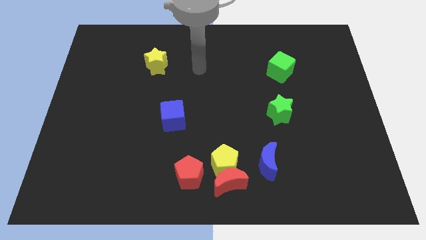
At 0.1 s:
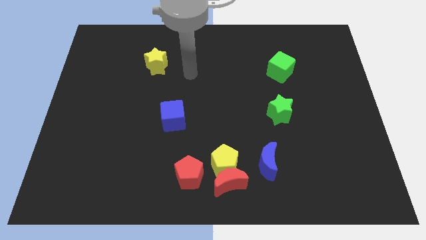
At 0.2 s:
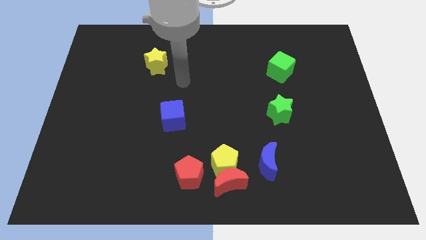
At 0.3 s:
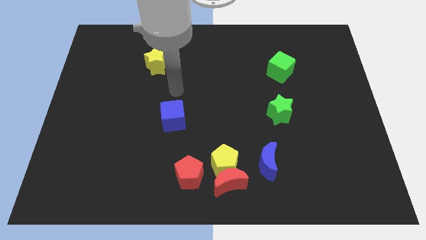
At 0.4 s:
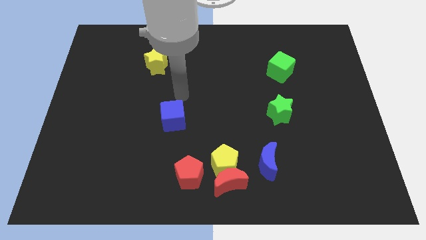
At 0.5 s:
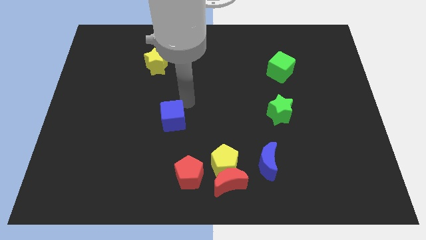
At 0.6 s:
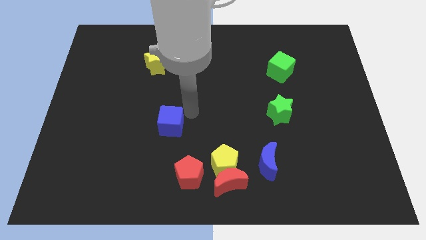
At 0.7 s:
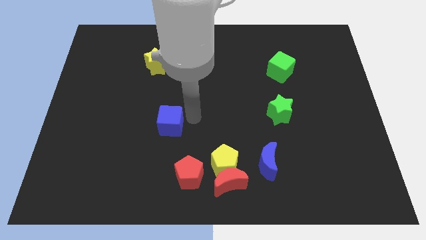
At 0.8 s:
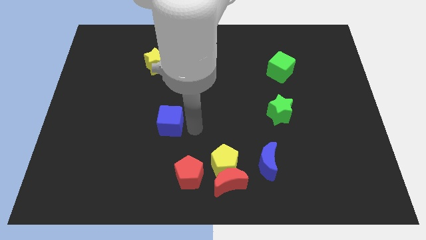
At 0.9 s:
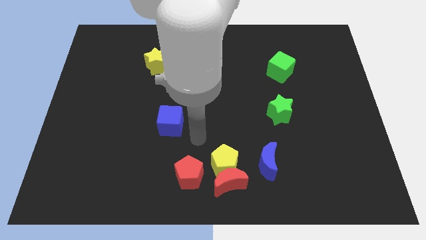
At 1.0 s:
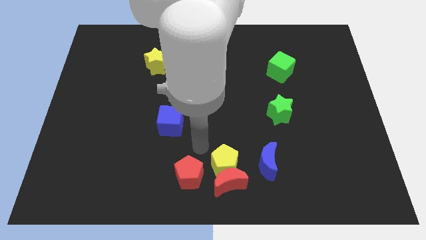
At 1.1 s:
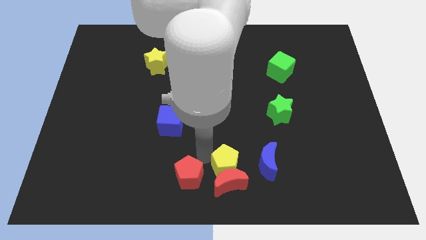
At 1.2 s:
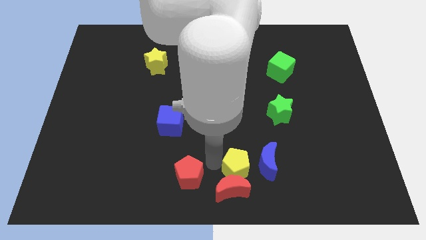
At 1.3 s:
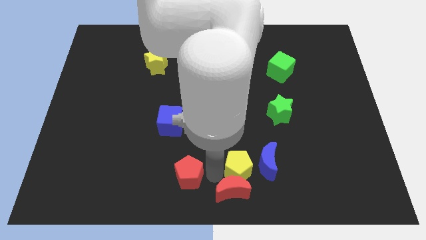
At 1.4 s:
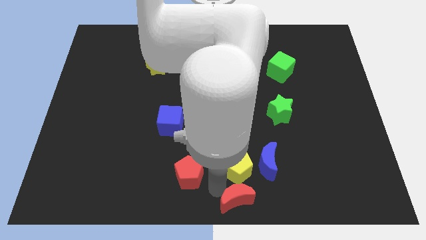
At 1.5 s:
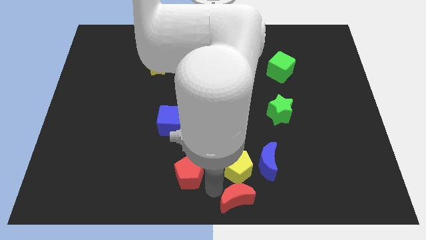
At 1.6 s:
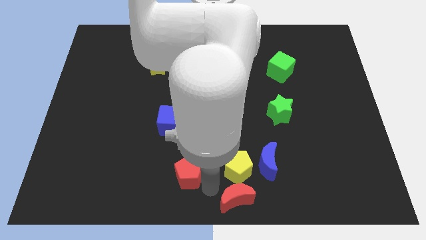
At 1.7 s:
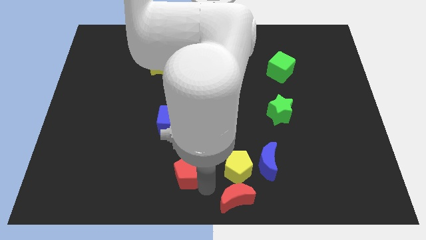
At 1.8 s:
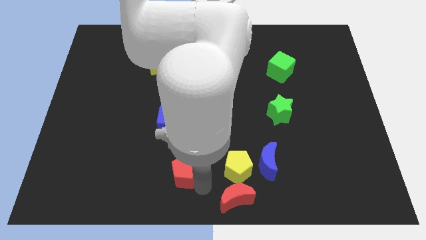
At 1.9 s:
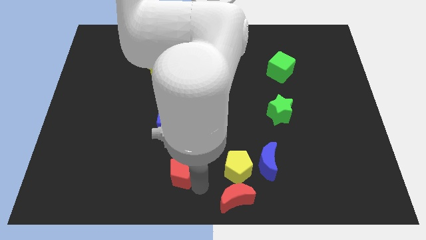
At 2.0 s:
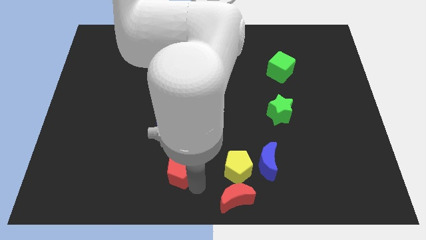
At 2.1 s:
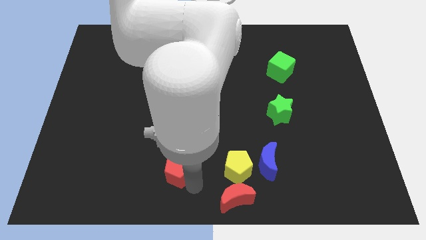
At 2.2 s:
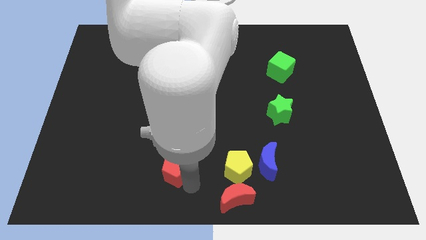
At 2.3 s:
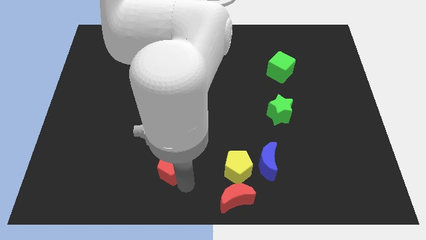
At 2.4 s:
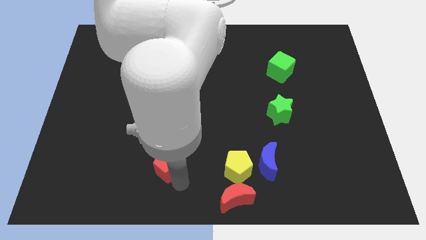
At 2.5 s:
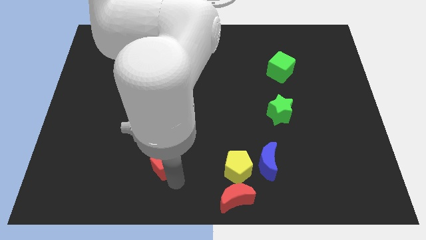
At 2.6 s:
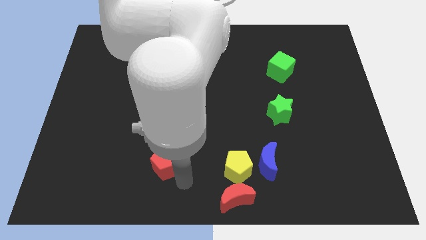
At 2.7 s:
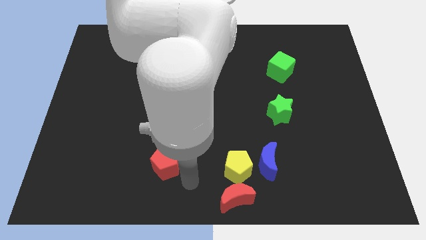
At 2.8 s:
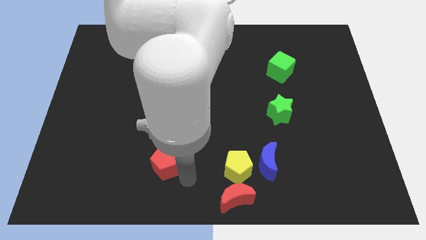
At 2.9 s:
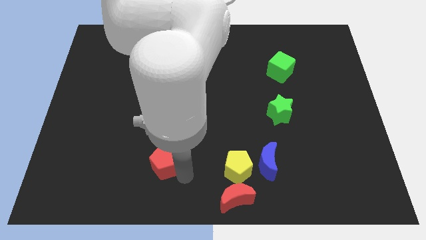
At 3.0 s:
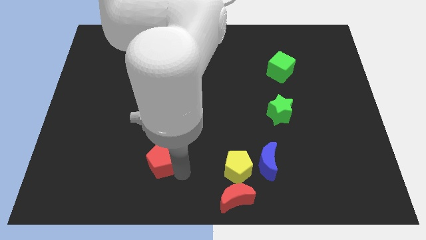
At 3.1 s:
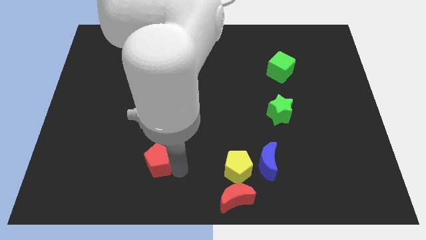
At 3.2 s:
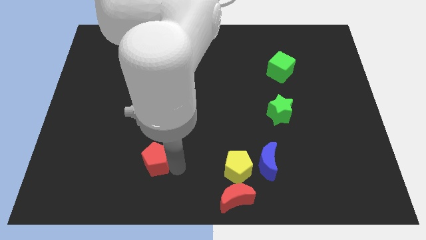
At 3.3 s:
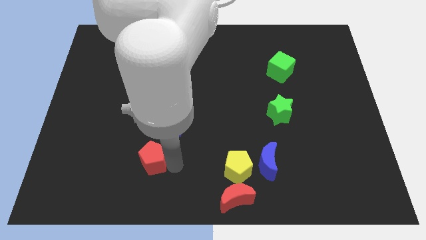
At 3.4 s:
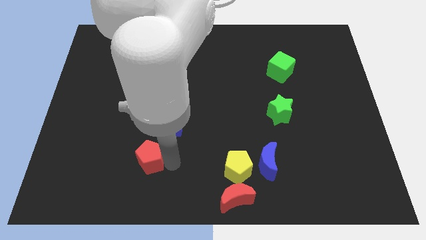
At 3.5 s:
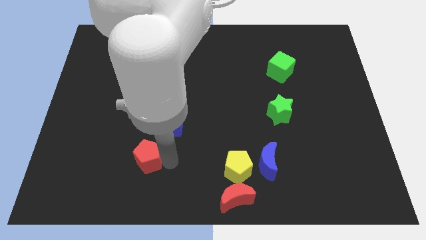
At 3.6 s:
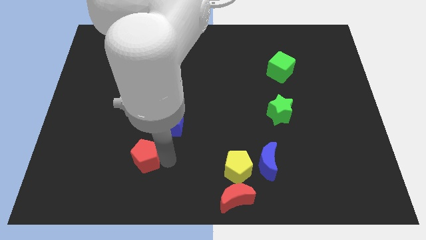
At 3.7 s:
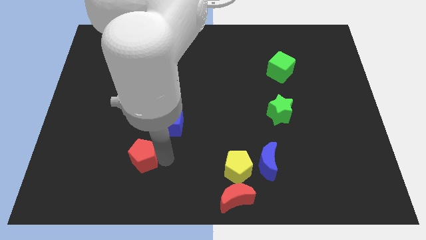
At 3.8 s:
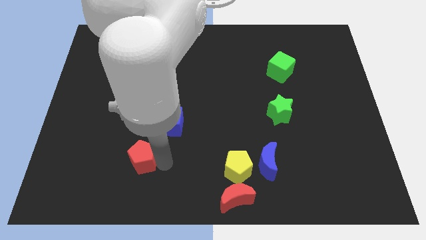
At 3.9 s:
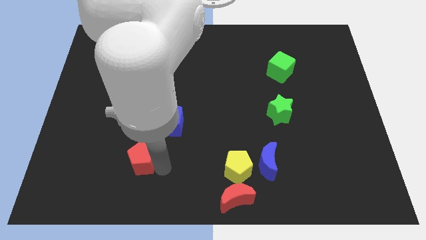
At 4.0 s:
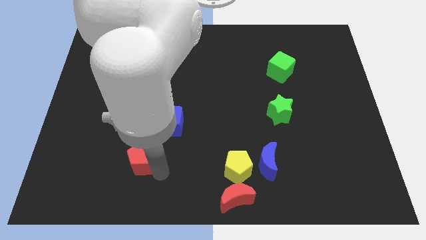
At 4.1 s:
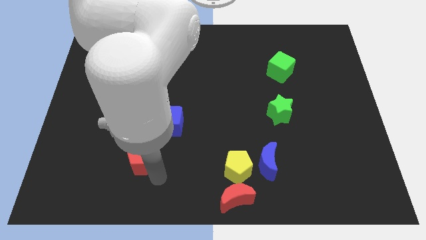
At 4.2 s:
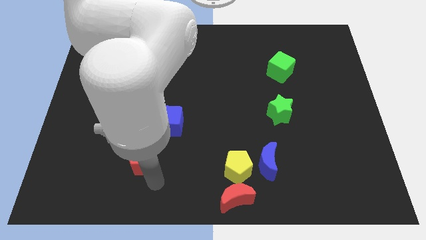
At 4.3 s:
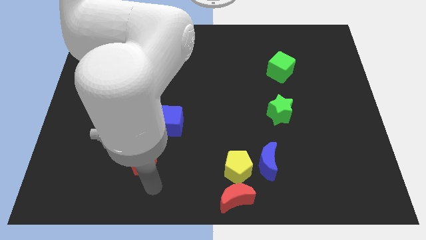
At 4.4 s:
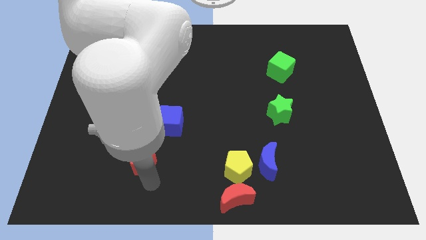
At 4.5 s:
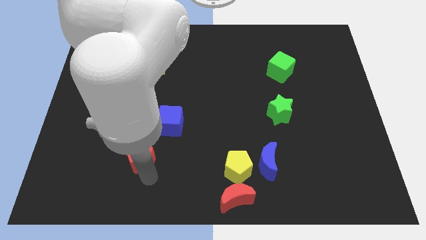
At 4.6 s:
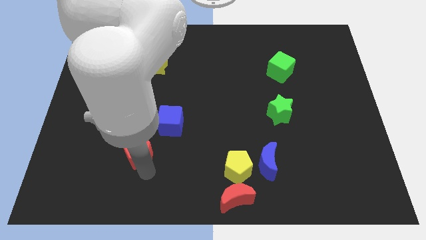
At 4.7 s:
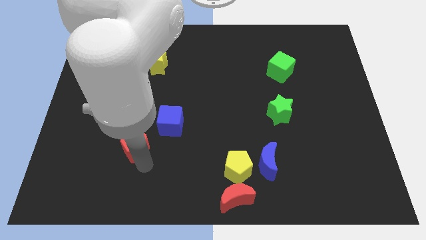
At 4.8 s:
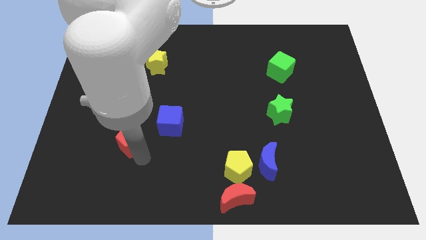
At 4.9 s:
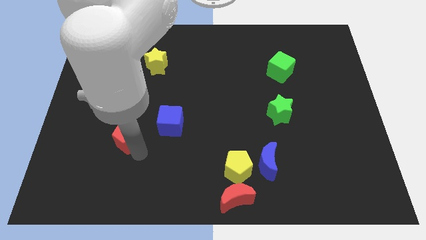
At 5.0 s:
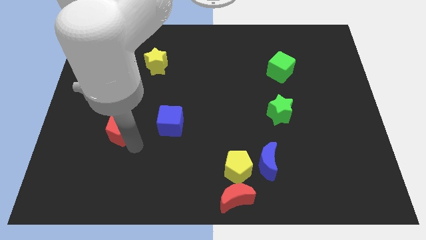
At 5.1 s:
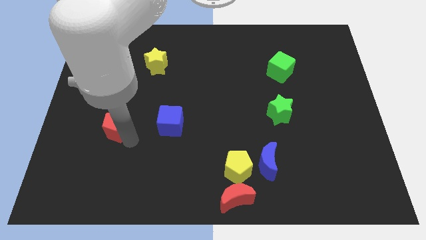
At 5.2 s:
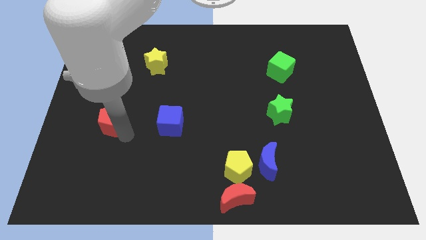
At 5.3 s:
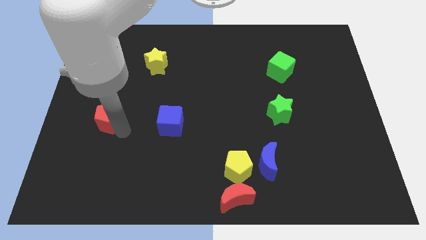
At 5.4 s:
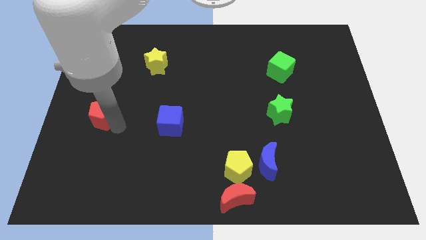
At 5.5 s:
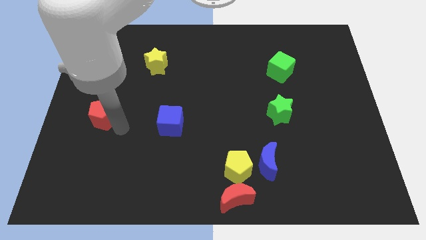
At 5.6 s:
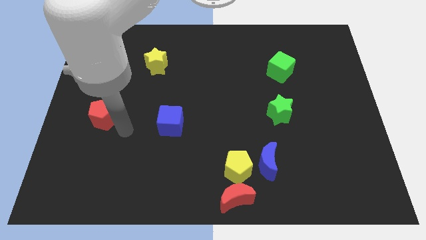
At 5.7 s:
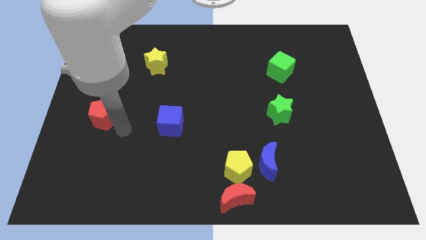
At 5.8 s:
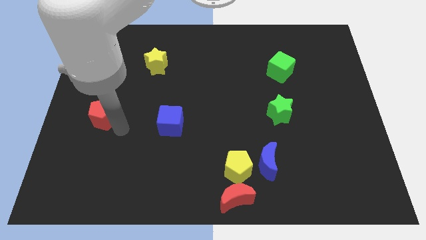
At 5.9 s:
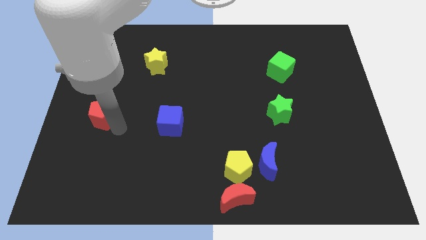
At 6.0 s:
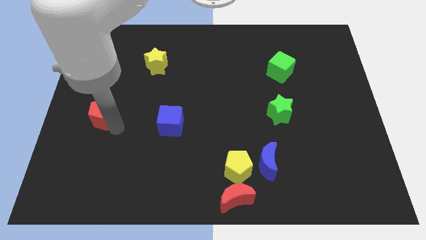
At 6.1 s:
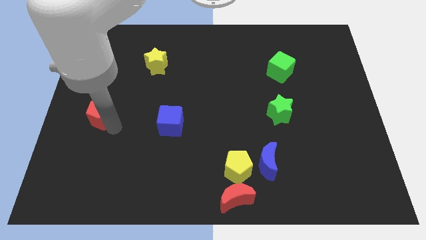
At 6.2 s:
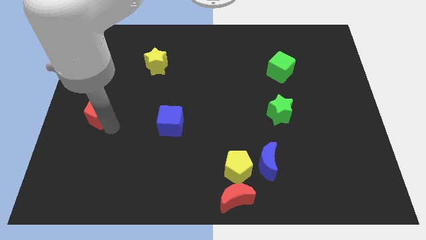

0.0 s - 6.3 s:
move the red pentagon to the left side of the board

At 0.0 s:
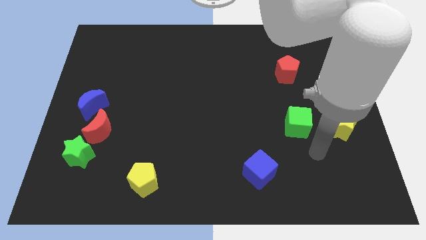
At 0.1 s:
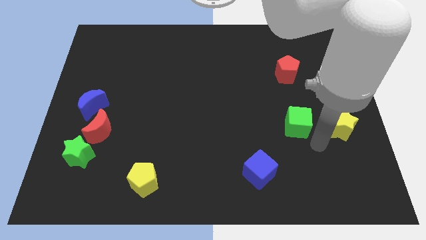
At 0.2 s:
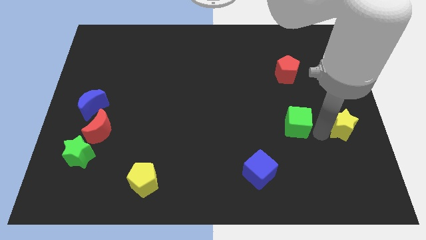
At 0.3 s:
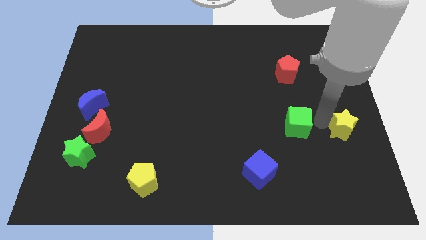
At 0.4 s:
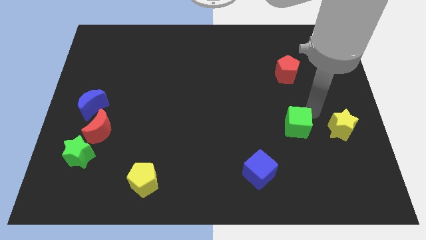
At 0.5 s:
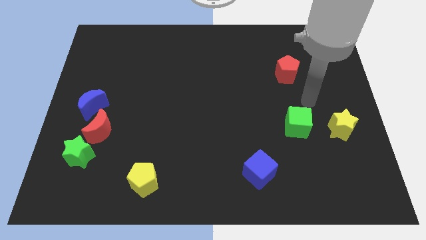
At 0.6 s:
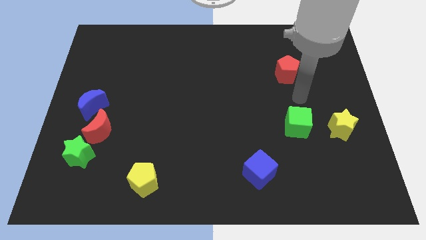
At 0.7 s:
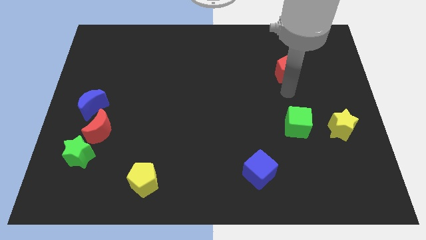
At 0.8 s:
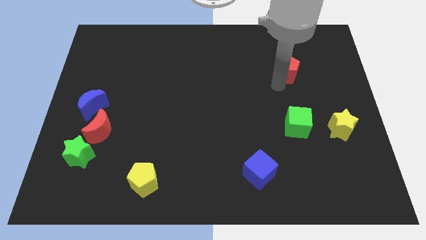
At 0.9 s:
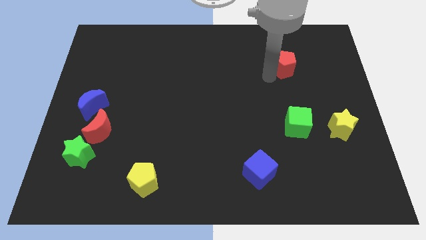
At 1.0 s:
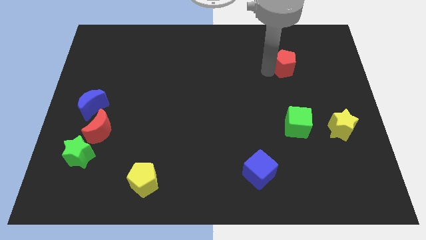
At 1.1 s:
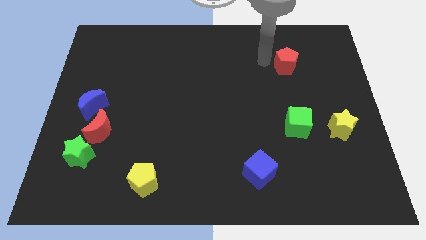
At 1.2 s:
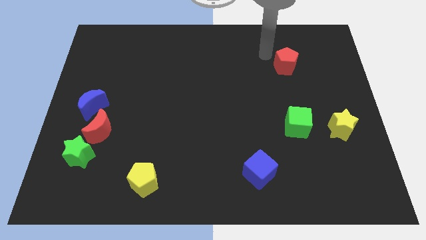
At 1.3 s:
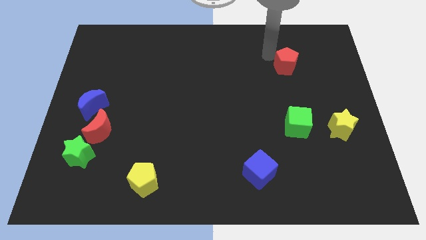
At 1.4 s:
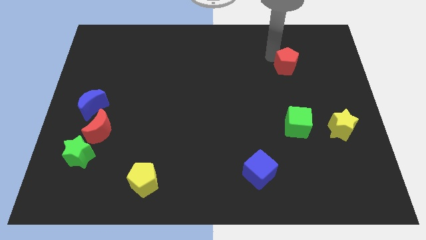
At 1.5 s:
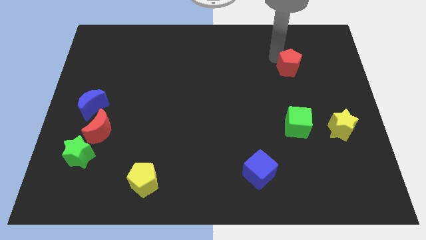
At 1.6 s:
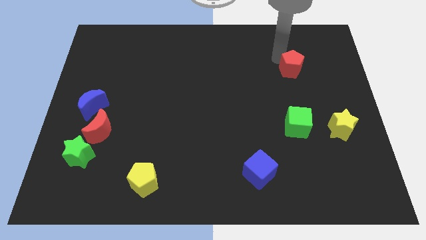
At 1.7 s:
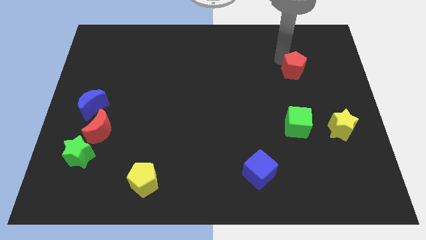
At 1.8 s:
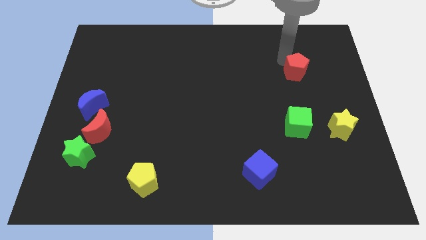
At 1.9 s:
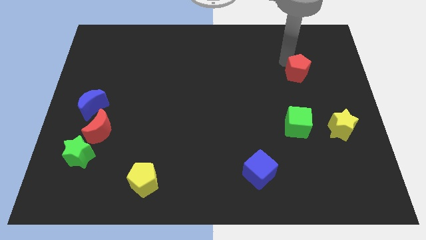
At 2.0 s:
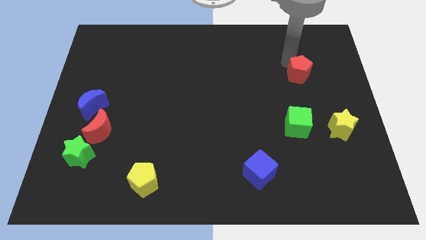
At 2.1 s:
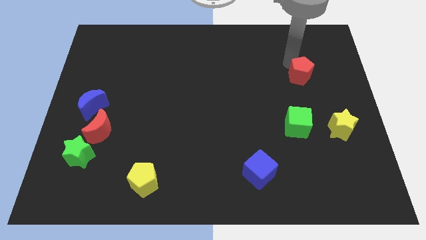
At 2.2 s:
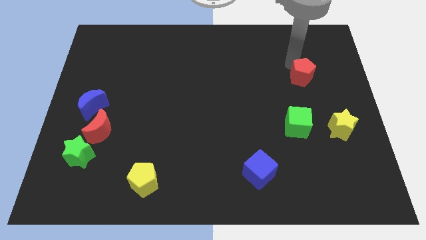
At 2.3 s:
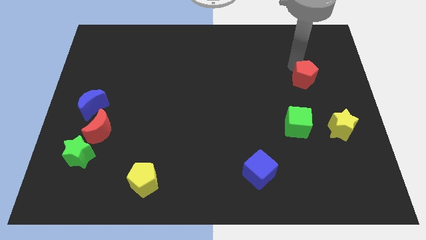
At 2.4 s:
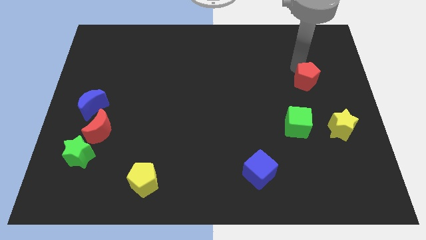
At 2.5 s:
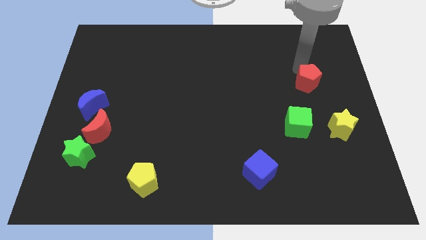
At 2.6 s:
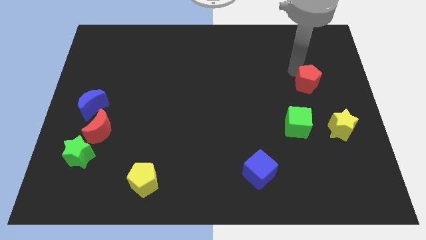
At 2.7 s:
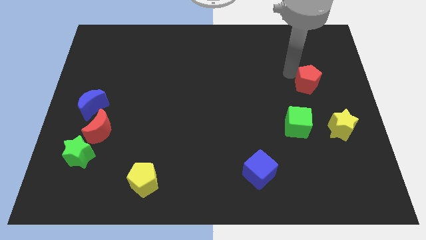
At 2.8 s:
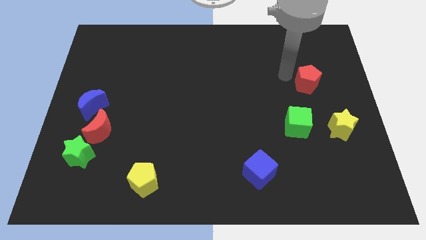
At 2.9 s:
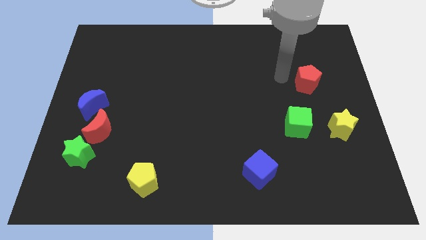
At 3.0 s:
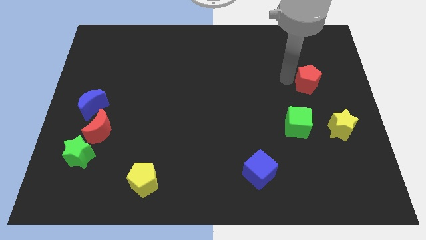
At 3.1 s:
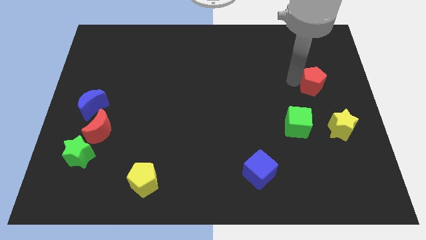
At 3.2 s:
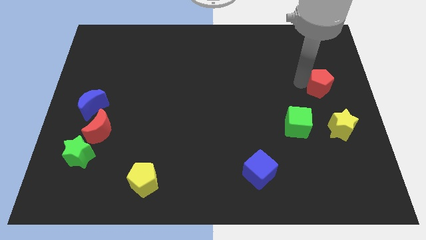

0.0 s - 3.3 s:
push the red pentagon to the right side of the board
